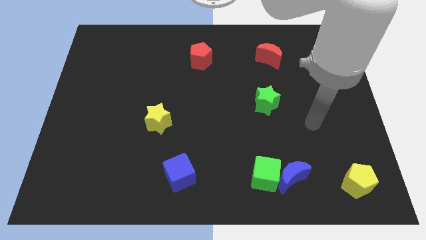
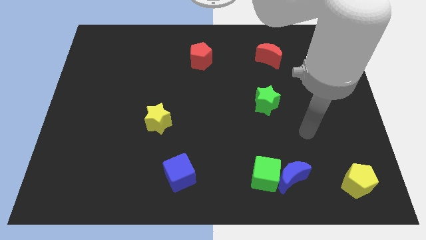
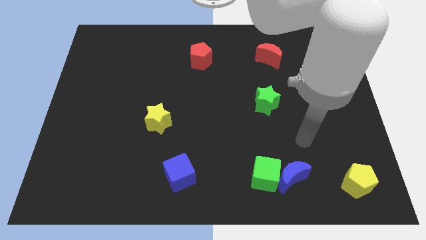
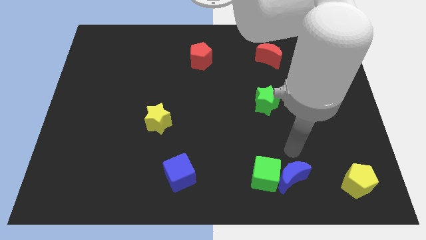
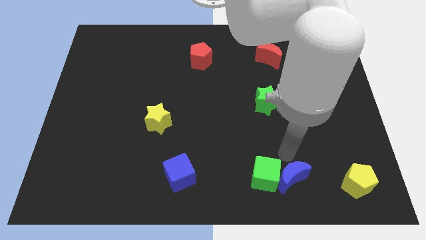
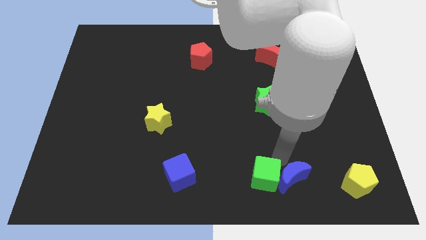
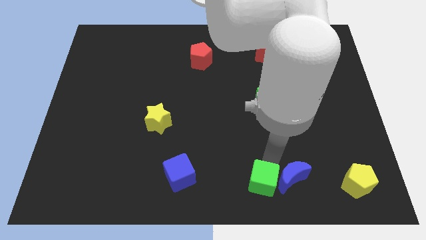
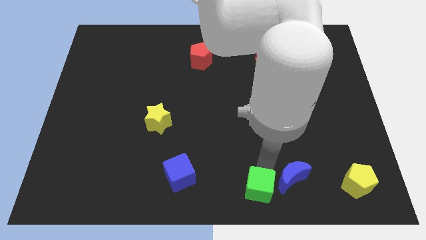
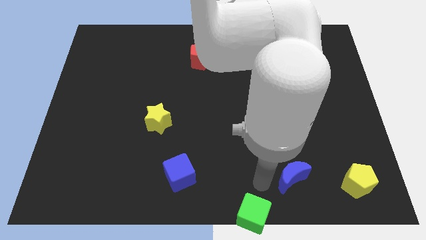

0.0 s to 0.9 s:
pull the blue moon apart from the green cube

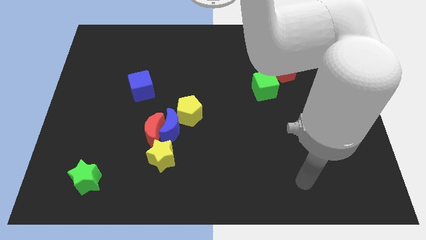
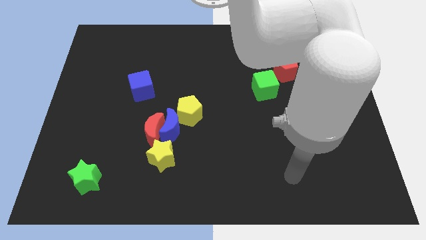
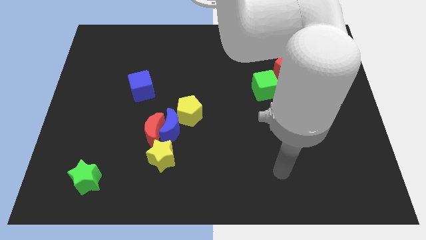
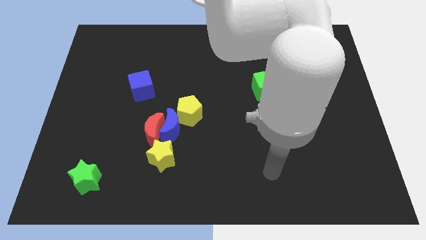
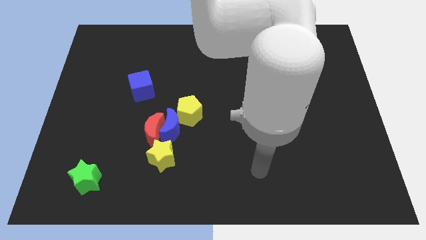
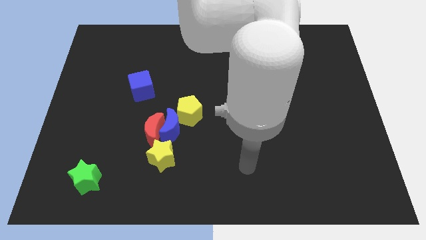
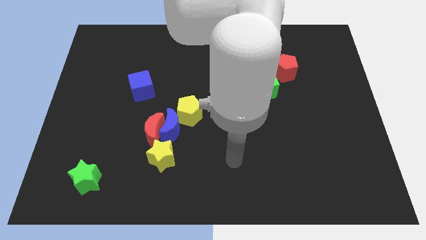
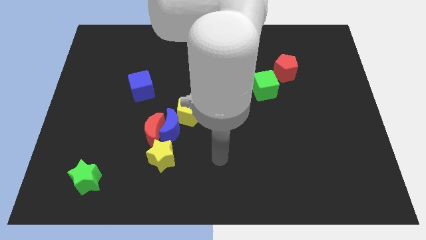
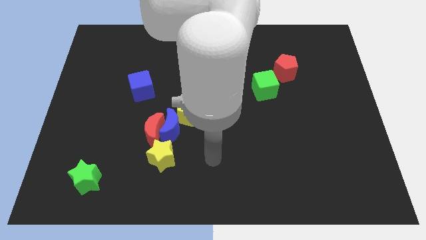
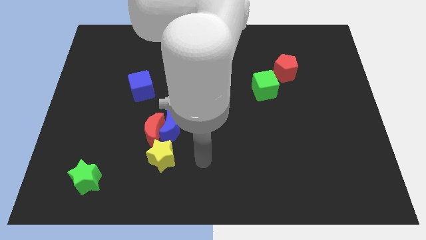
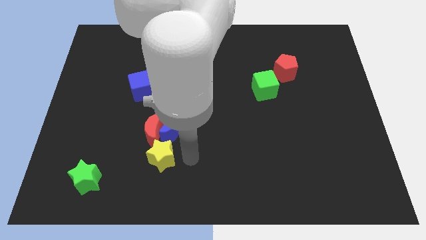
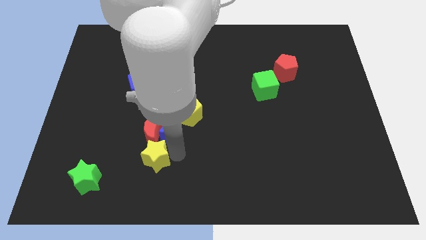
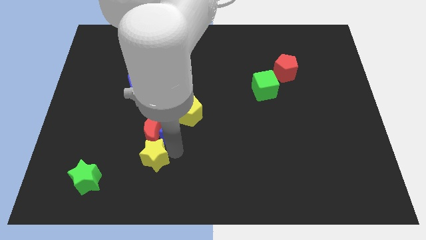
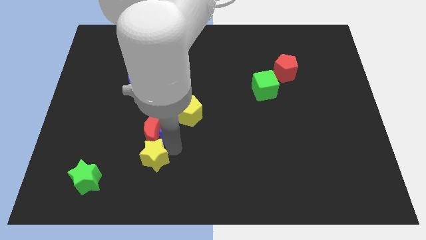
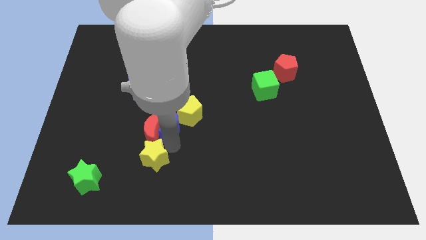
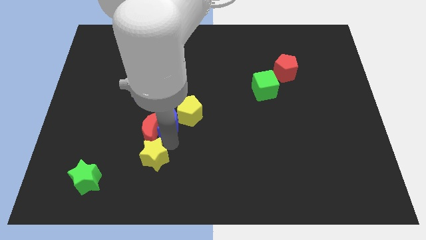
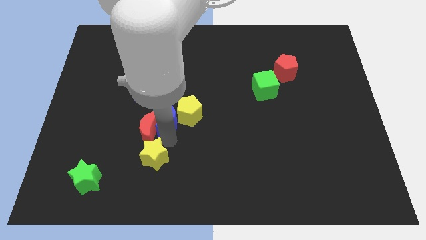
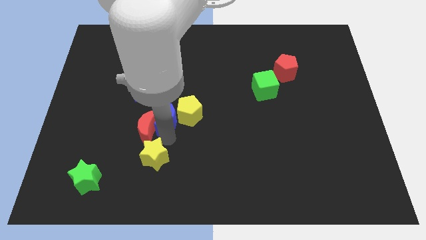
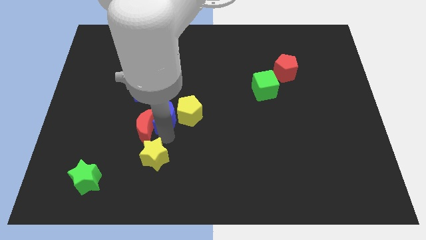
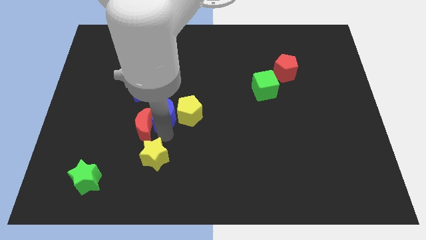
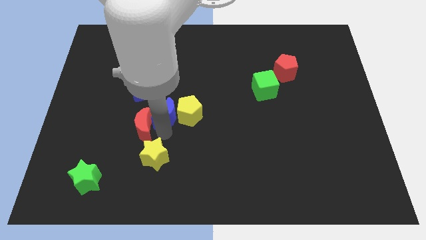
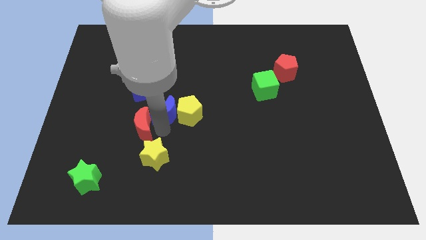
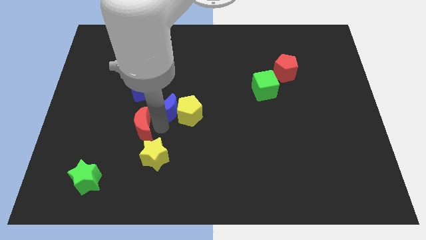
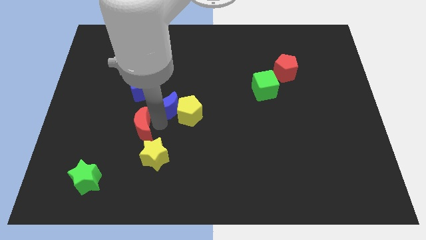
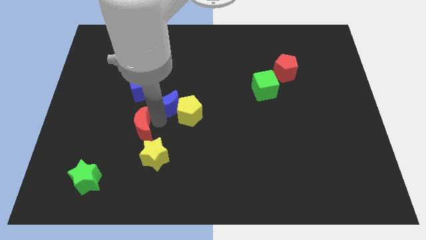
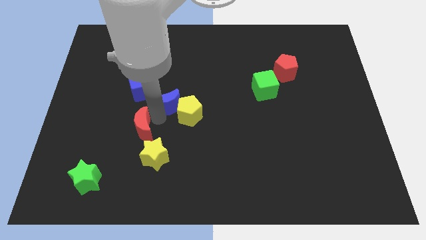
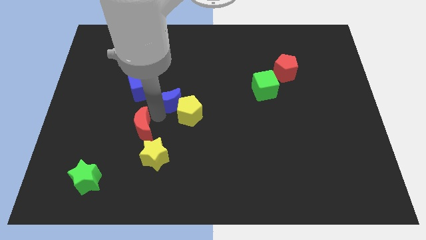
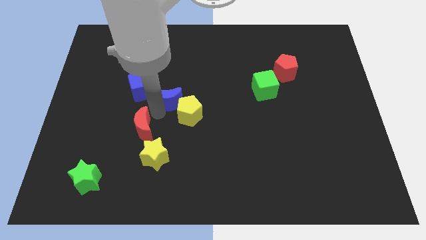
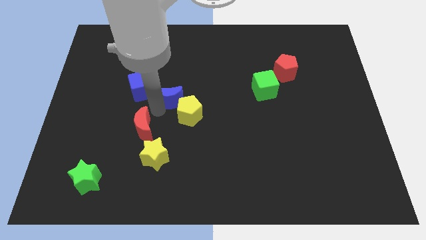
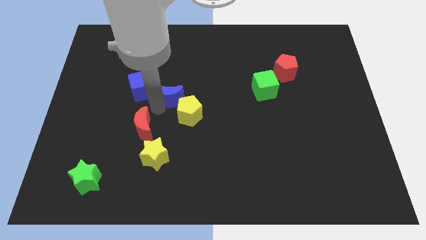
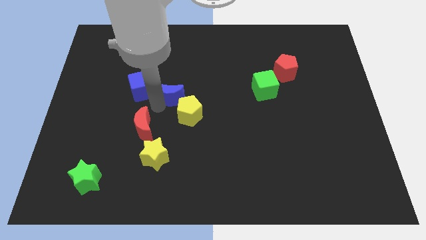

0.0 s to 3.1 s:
separate the blue moon from the red moon, yellow pentagon, and yellow star

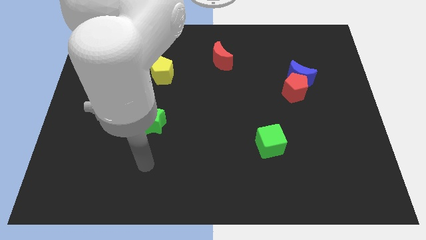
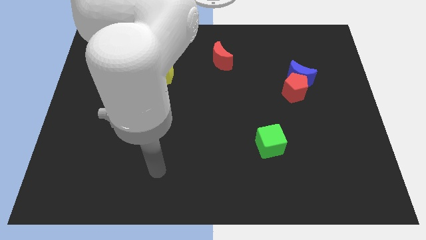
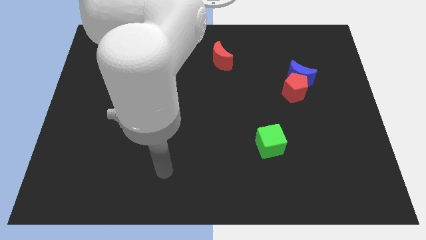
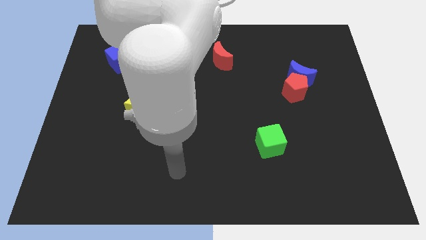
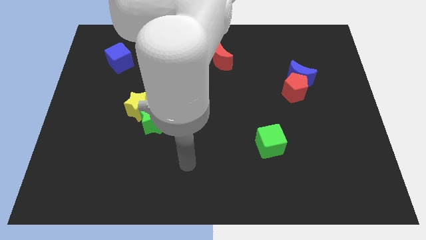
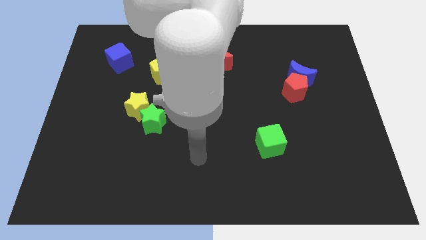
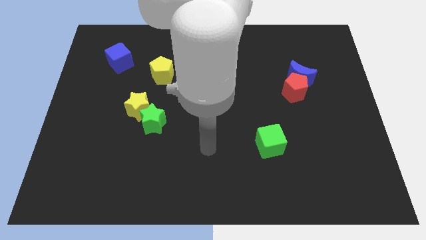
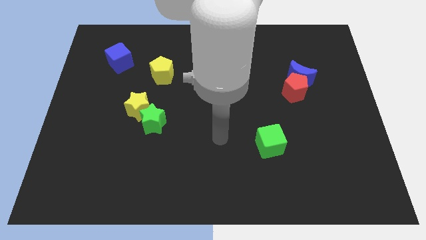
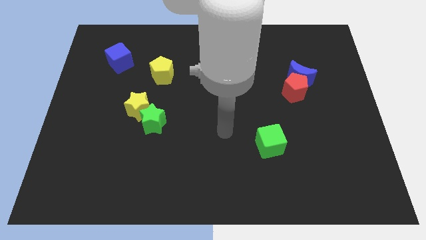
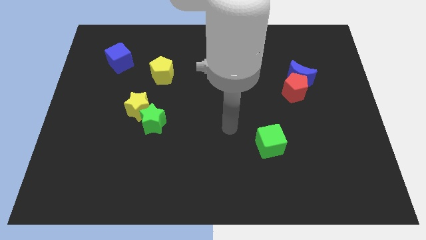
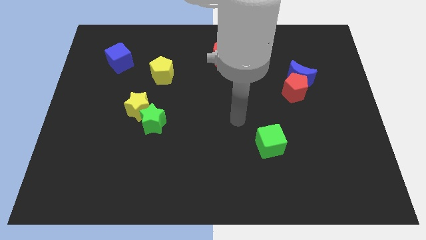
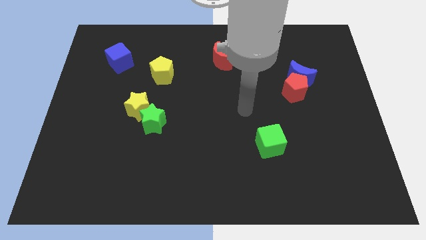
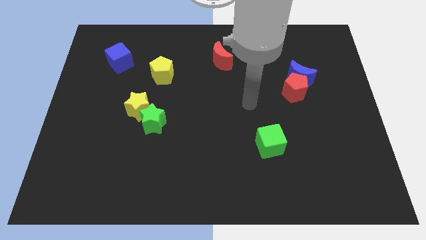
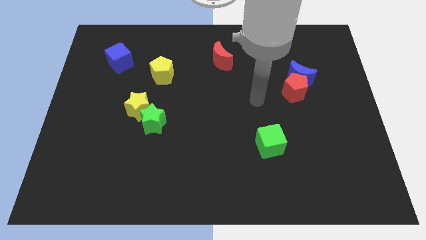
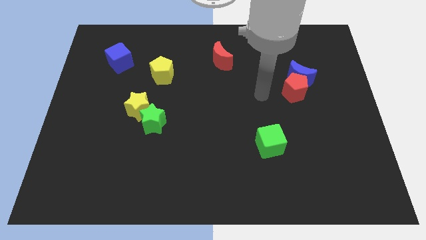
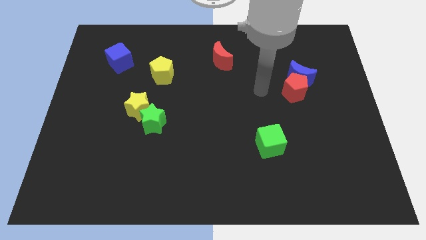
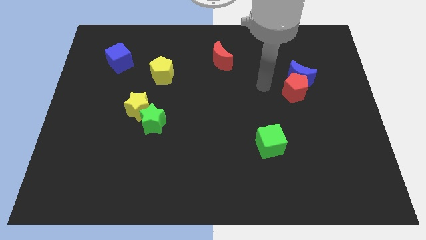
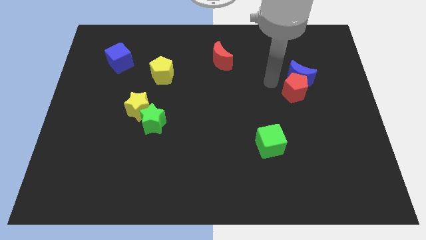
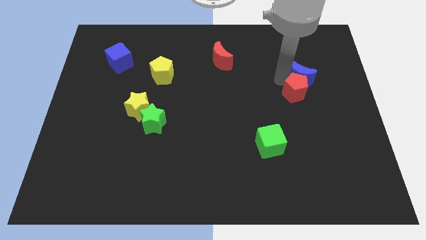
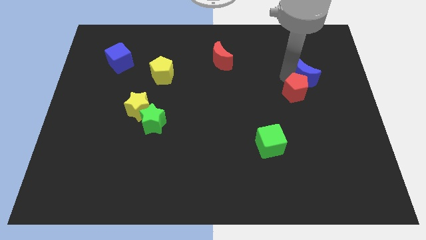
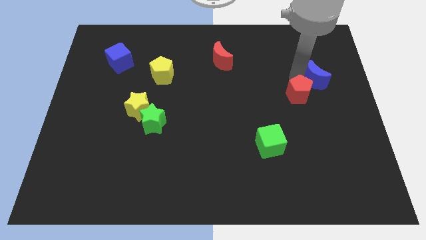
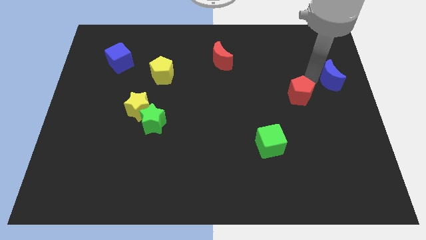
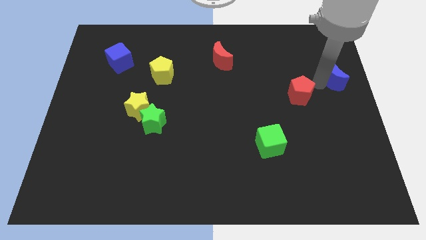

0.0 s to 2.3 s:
pull the red pentagon apart from the blue moon

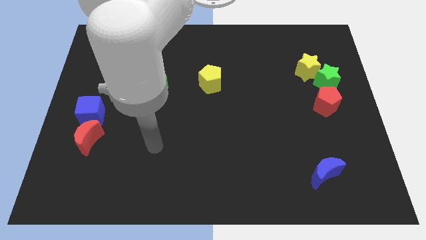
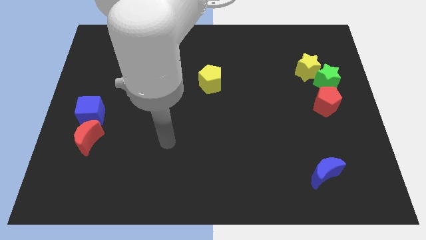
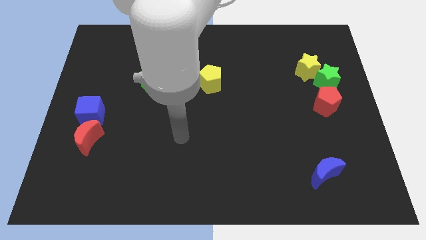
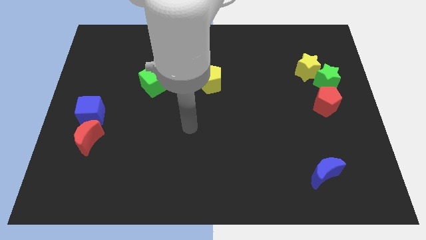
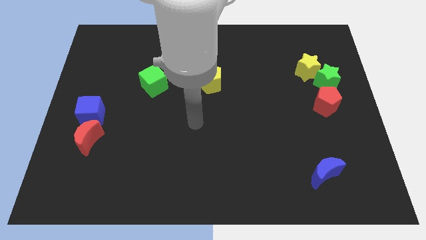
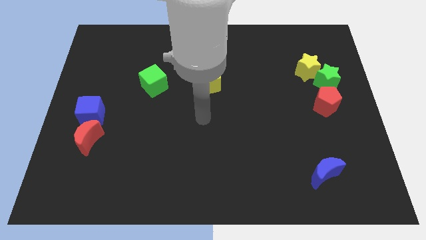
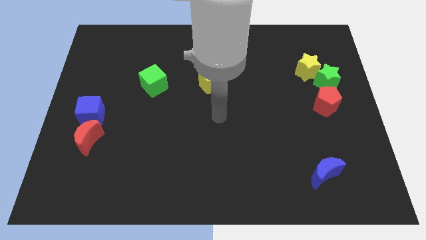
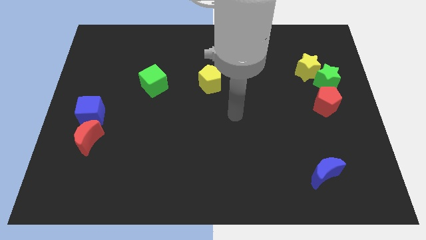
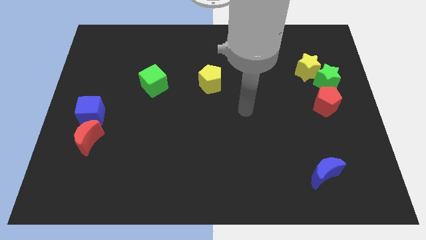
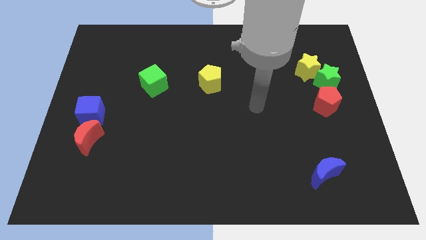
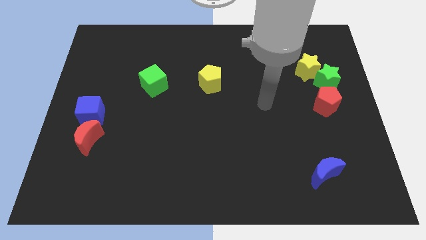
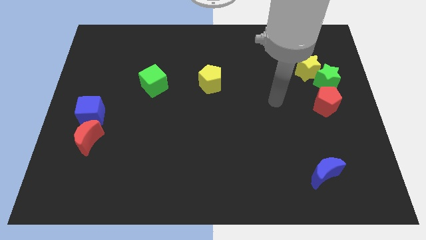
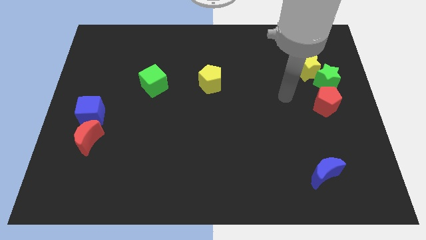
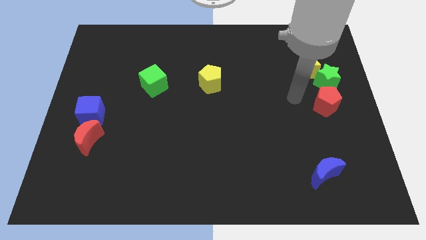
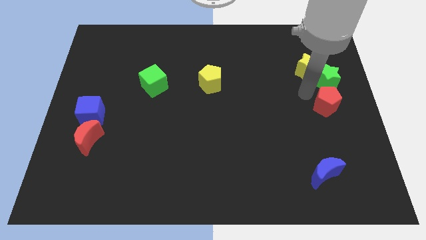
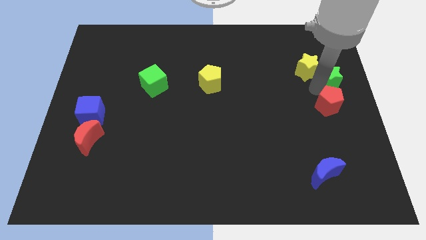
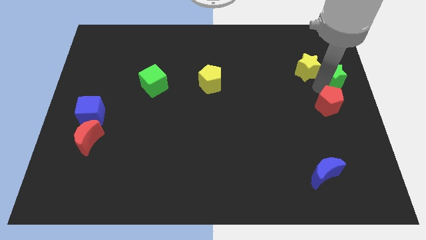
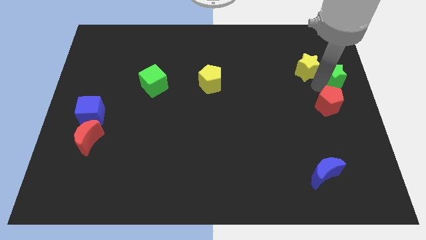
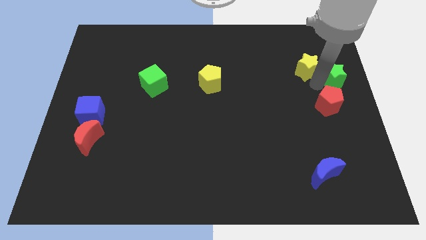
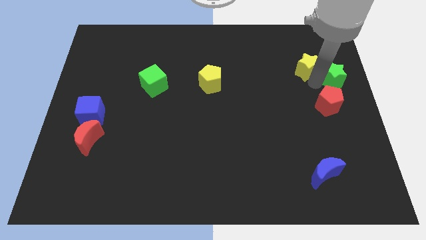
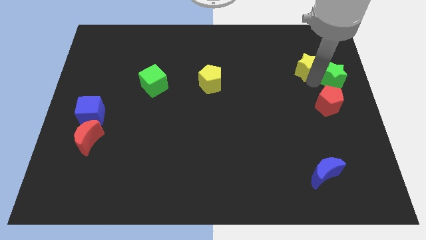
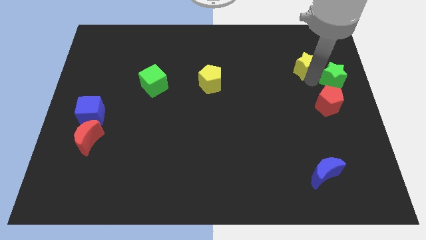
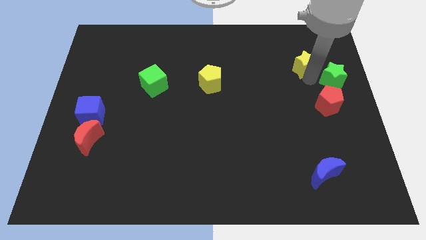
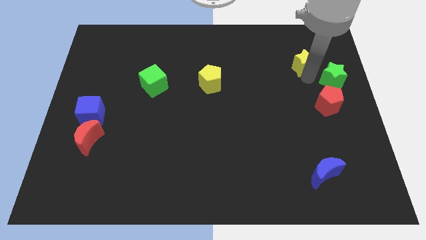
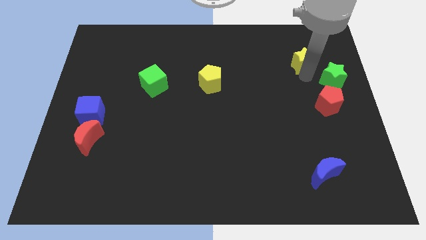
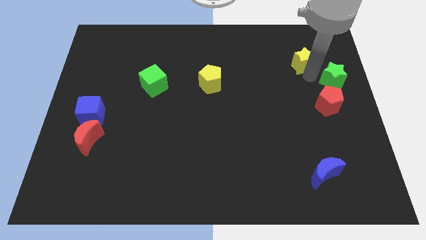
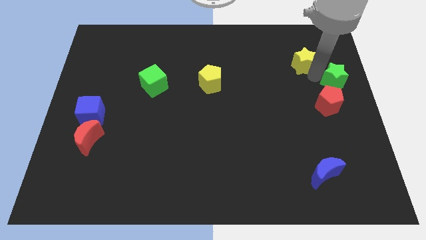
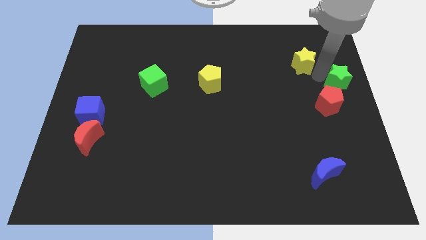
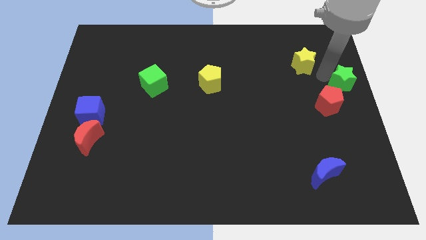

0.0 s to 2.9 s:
move the yellow star away from the green star

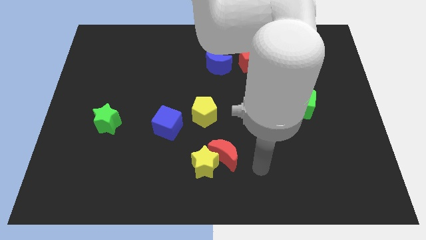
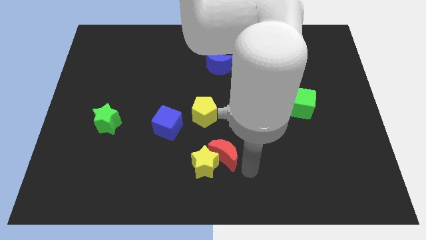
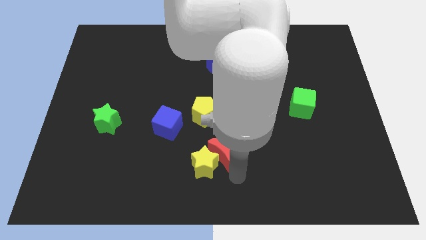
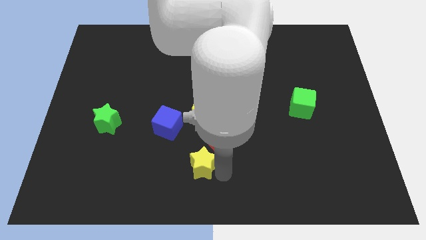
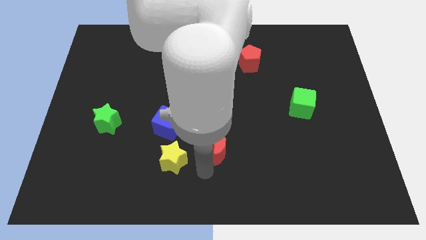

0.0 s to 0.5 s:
move the red moon away from the yellow star
